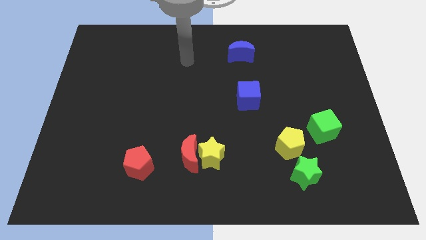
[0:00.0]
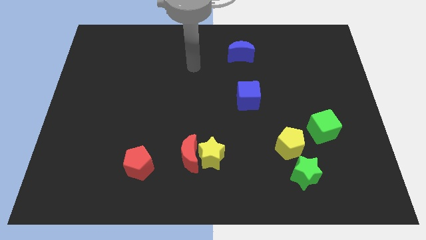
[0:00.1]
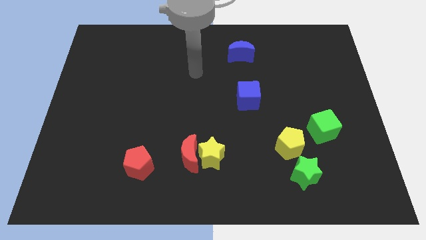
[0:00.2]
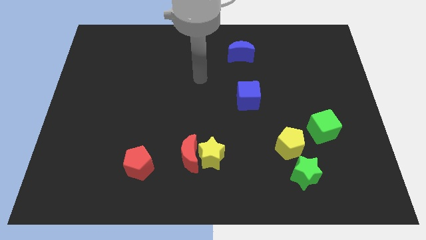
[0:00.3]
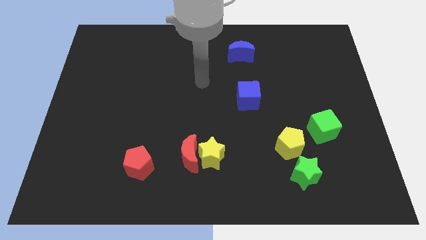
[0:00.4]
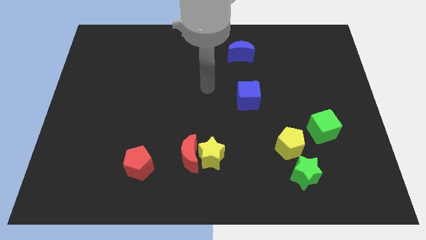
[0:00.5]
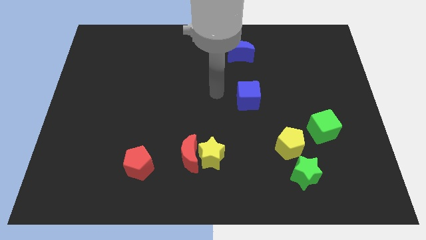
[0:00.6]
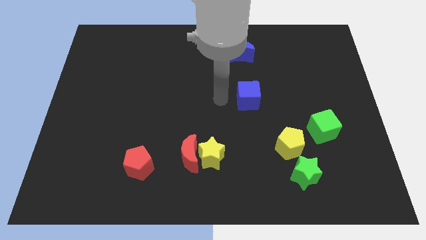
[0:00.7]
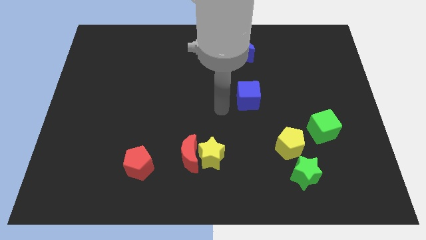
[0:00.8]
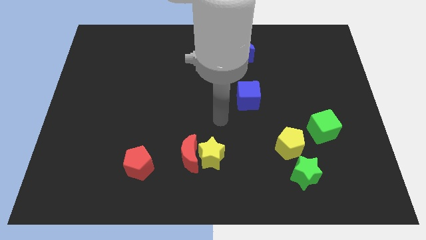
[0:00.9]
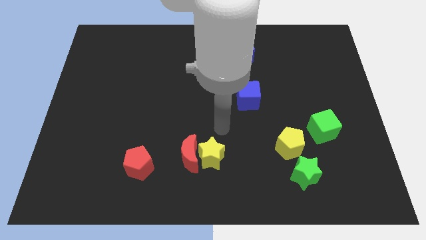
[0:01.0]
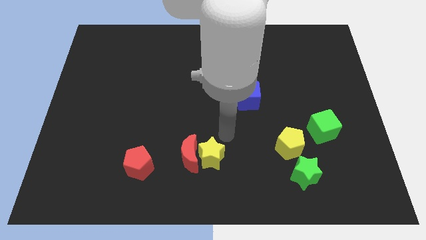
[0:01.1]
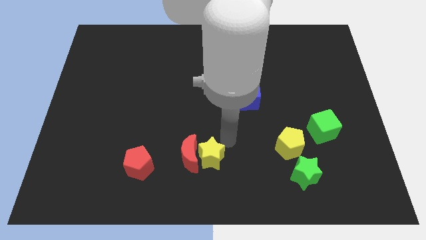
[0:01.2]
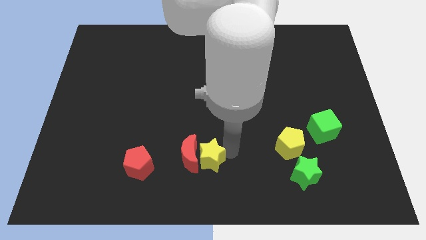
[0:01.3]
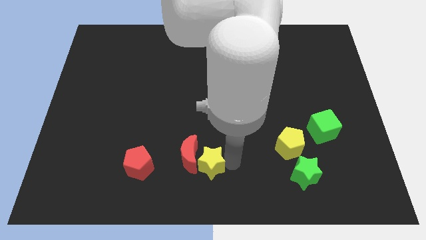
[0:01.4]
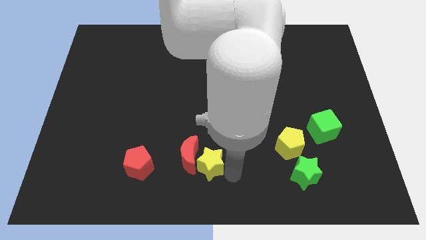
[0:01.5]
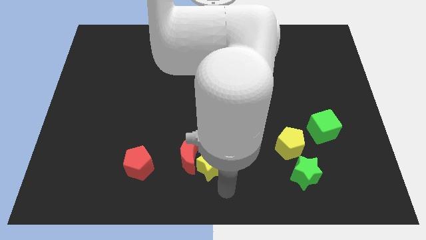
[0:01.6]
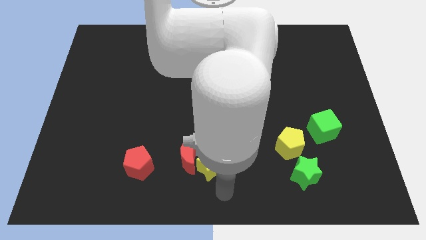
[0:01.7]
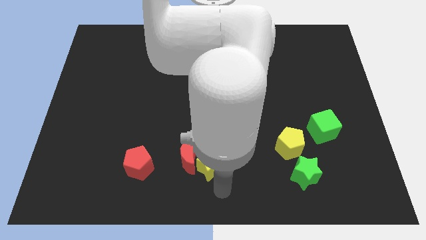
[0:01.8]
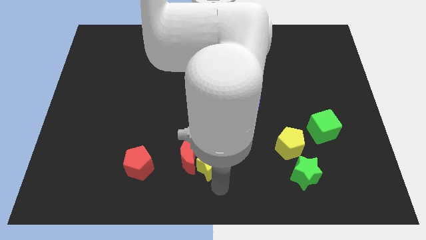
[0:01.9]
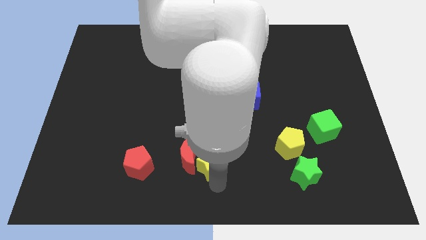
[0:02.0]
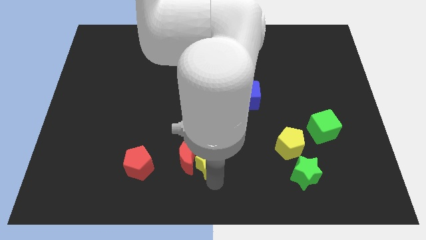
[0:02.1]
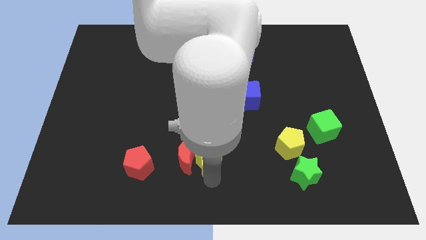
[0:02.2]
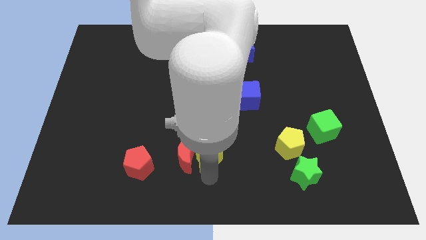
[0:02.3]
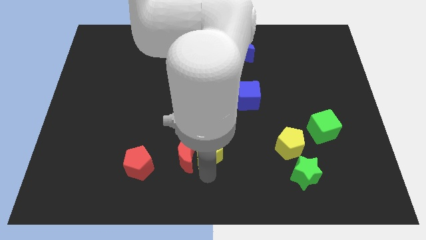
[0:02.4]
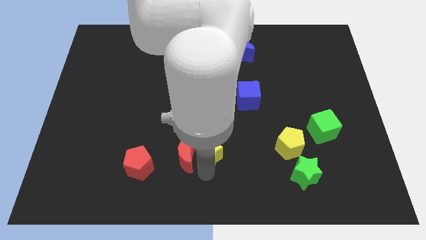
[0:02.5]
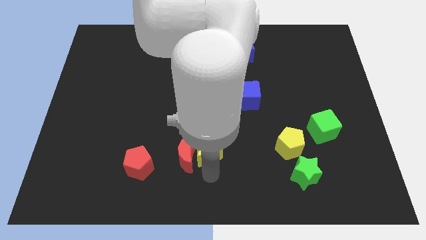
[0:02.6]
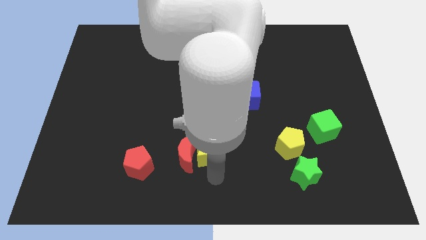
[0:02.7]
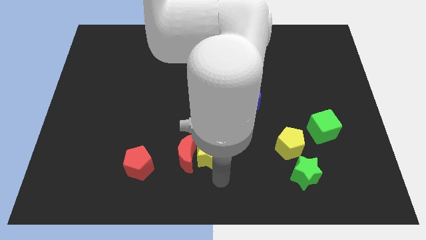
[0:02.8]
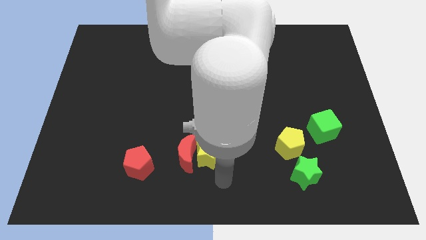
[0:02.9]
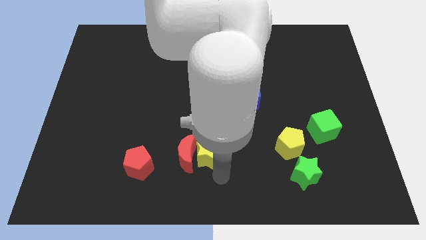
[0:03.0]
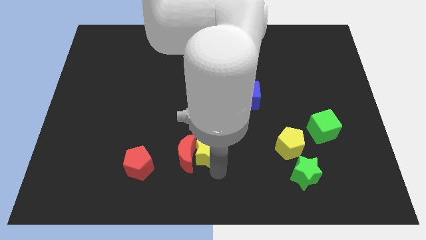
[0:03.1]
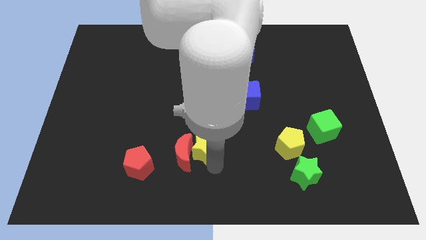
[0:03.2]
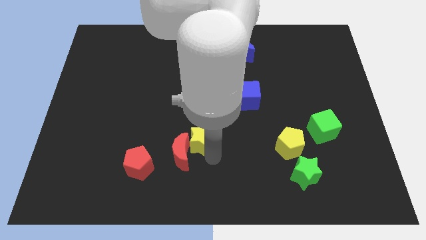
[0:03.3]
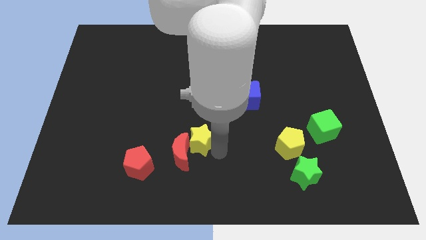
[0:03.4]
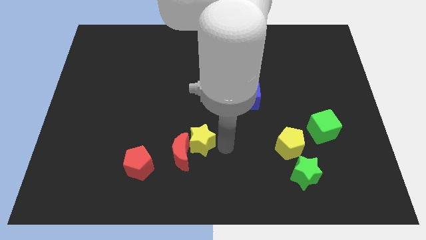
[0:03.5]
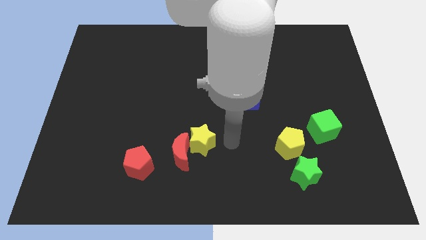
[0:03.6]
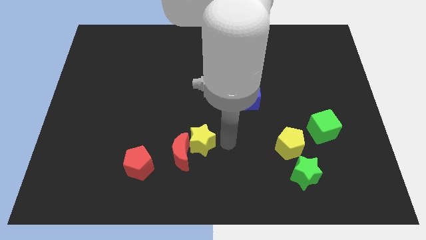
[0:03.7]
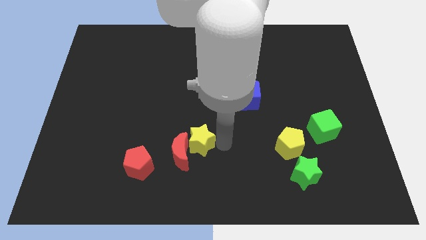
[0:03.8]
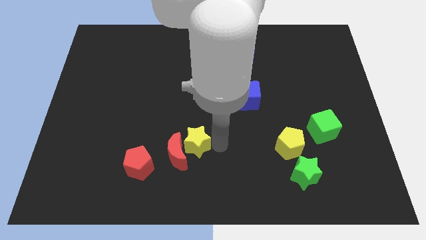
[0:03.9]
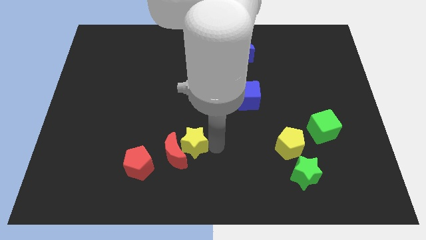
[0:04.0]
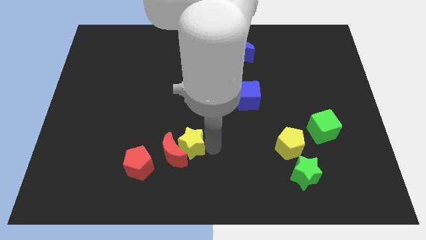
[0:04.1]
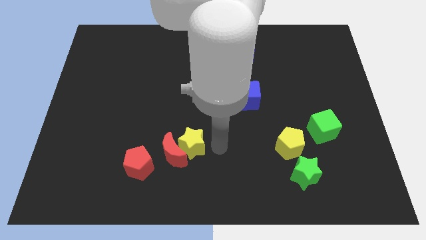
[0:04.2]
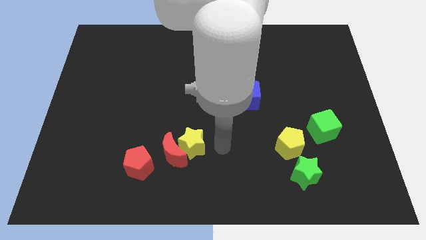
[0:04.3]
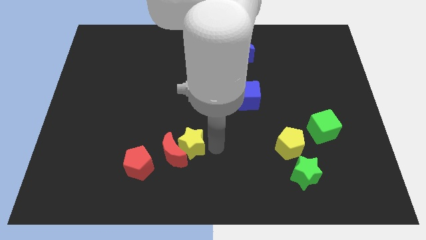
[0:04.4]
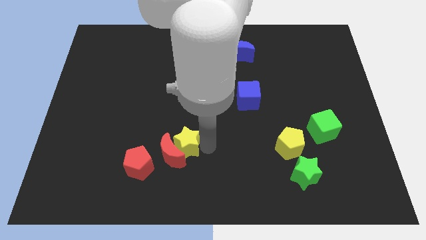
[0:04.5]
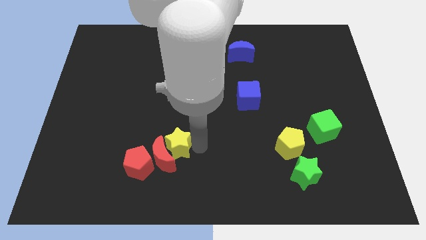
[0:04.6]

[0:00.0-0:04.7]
move the yellow star to the left slightly

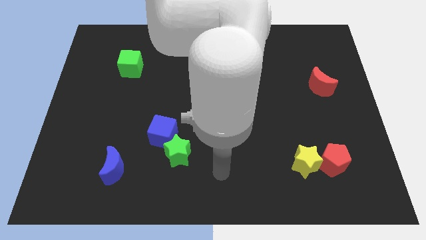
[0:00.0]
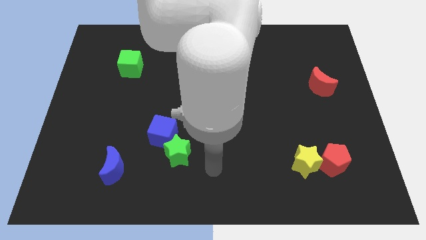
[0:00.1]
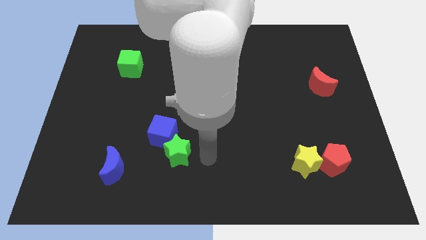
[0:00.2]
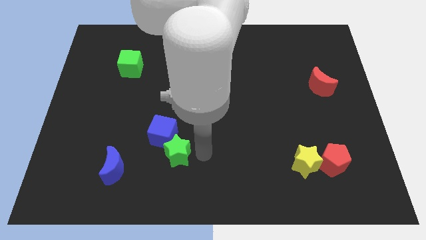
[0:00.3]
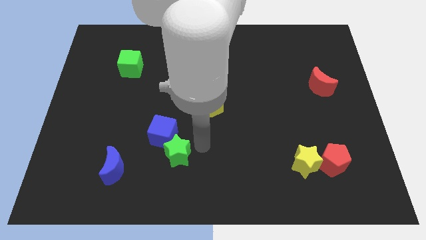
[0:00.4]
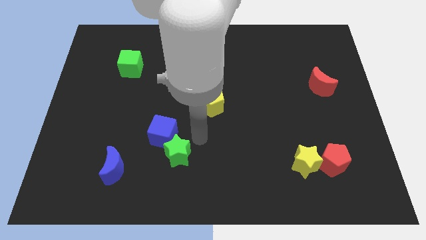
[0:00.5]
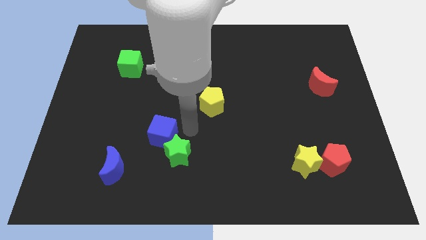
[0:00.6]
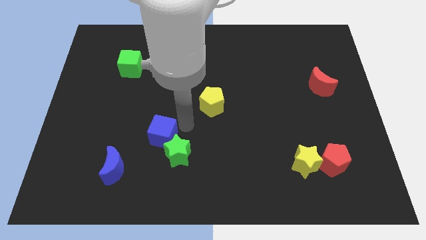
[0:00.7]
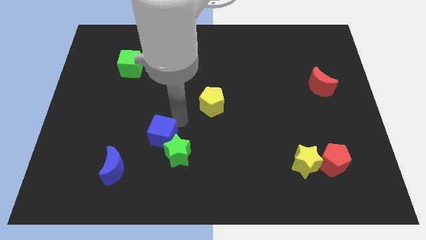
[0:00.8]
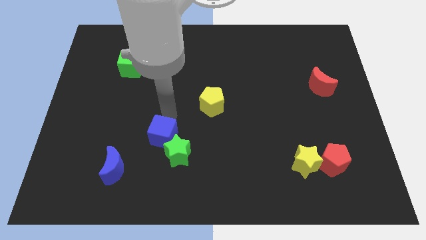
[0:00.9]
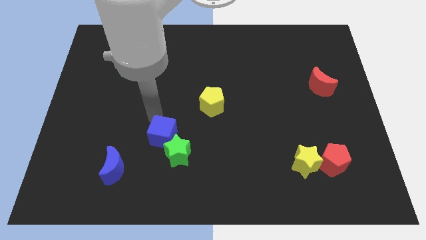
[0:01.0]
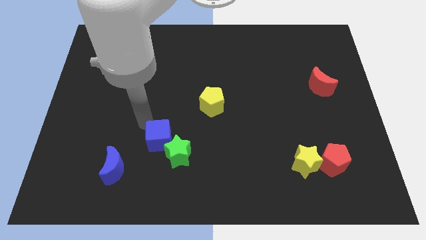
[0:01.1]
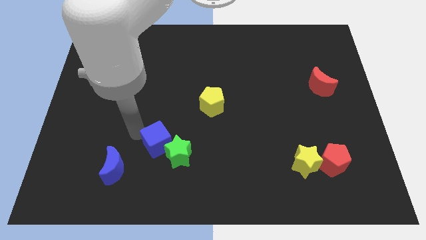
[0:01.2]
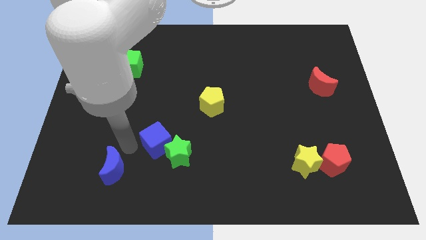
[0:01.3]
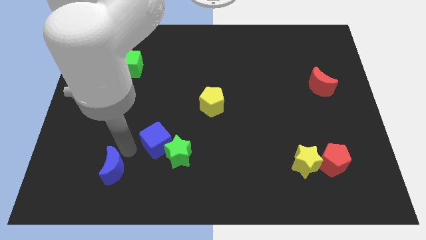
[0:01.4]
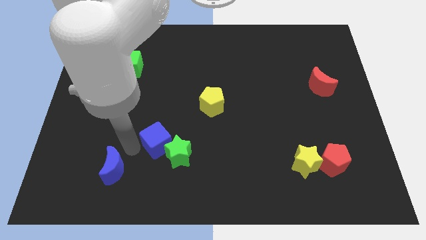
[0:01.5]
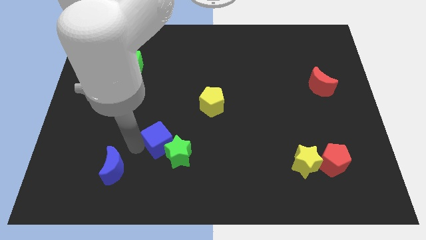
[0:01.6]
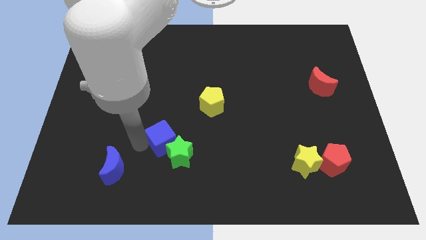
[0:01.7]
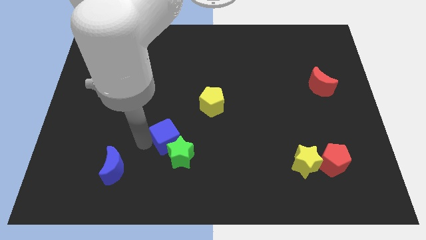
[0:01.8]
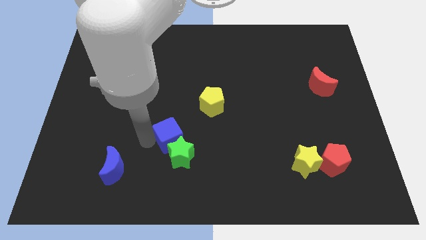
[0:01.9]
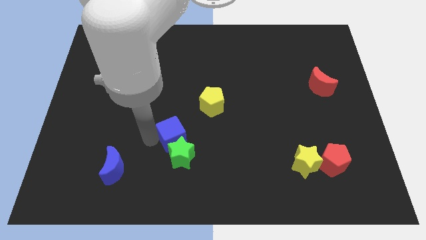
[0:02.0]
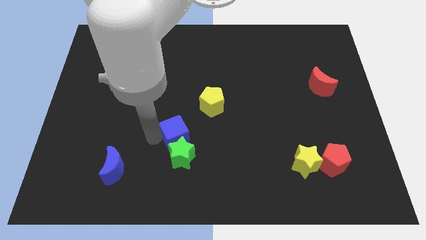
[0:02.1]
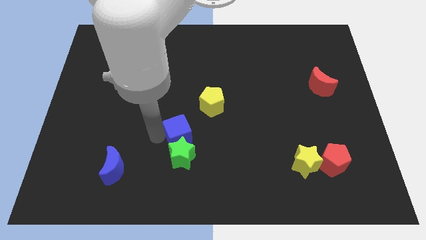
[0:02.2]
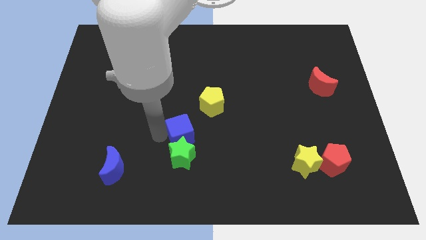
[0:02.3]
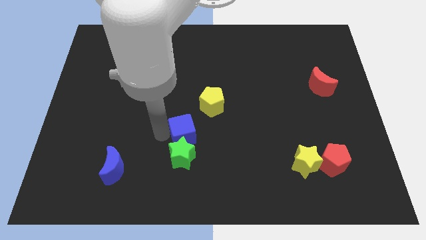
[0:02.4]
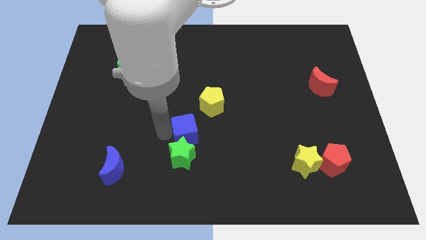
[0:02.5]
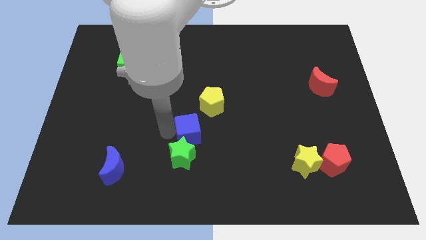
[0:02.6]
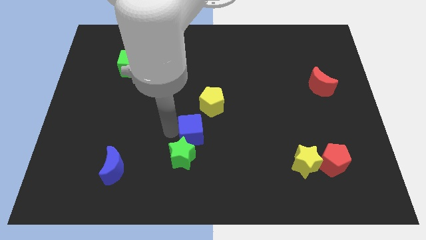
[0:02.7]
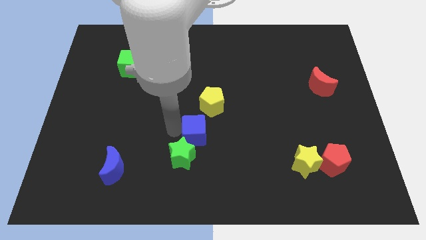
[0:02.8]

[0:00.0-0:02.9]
slightly push the blue cube right

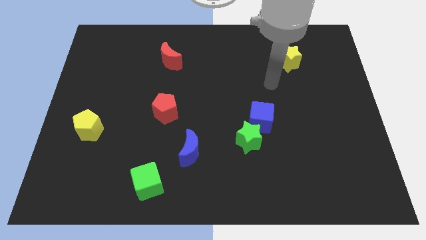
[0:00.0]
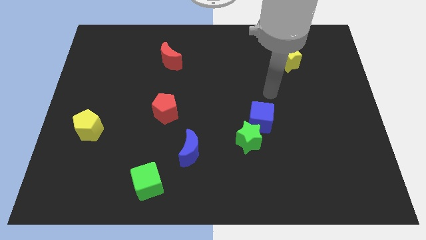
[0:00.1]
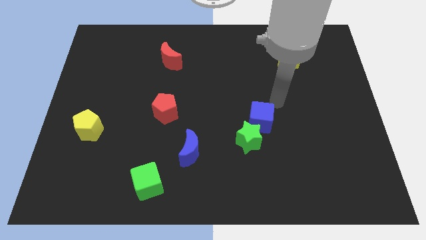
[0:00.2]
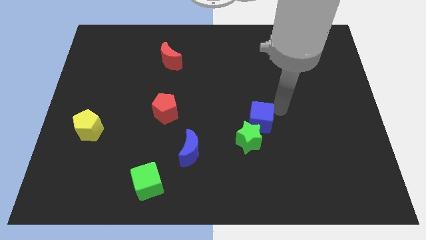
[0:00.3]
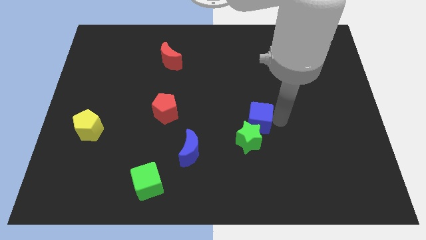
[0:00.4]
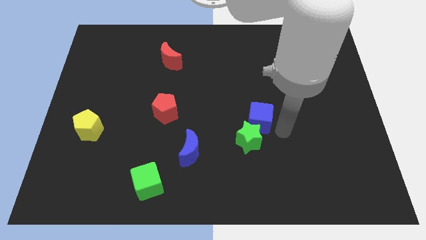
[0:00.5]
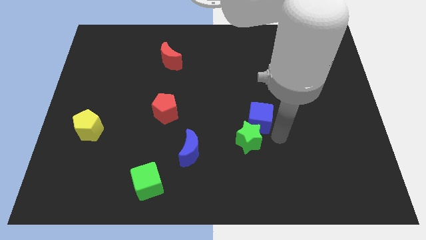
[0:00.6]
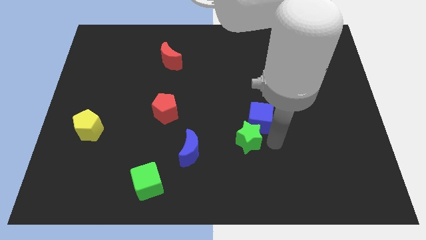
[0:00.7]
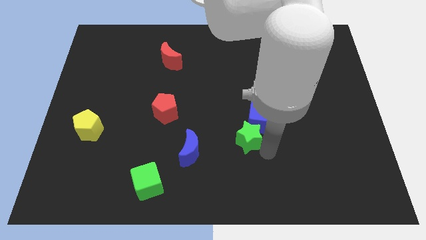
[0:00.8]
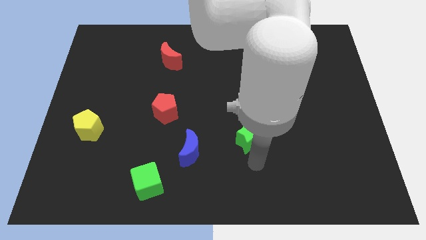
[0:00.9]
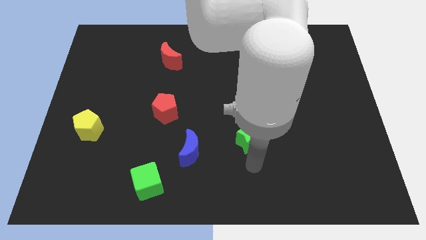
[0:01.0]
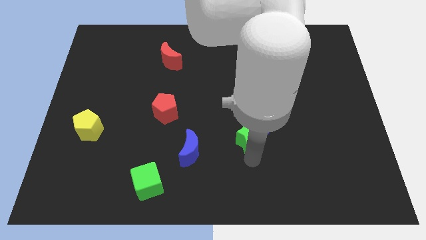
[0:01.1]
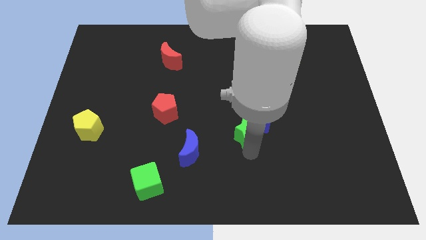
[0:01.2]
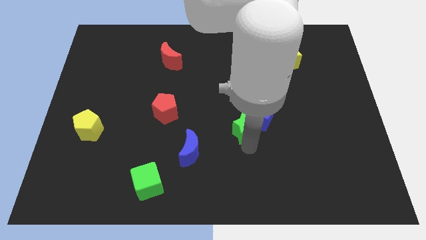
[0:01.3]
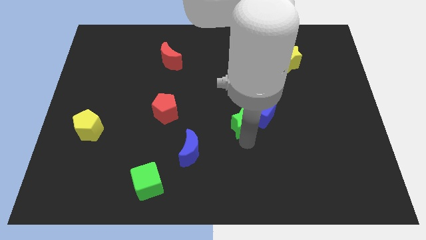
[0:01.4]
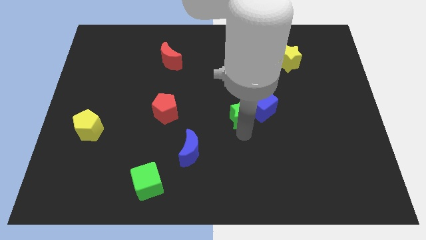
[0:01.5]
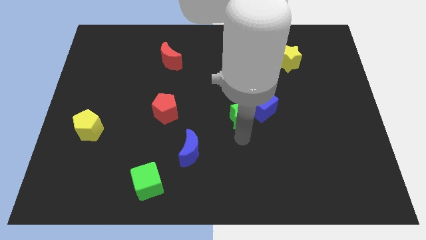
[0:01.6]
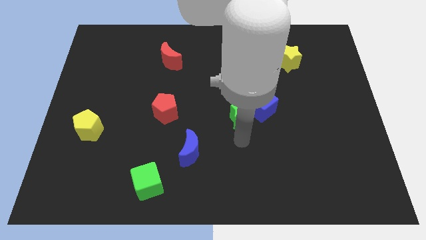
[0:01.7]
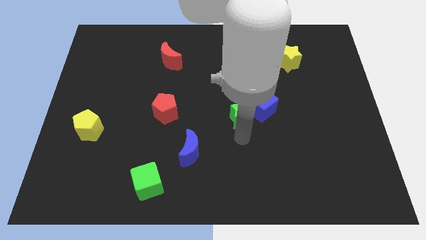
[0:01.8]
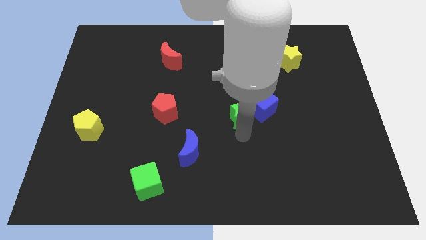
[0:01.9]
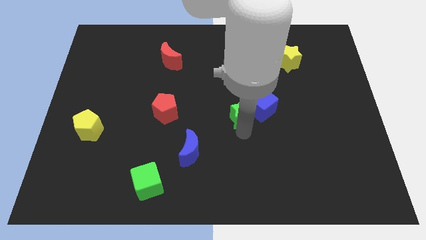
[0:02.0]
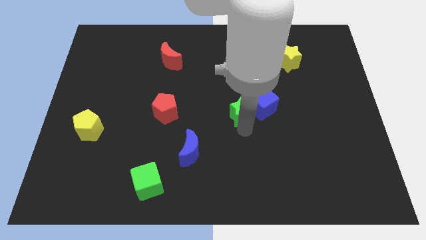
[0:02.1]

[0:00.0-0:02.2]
slide the green star a little up
